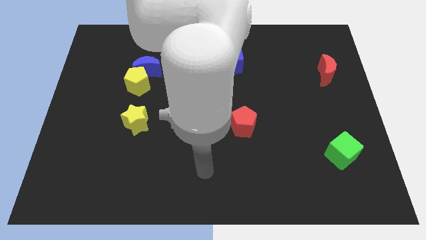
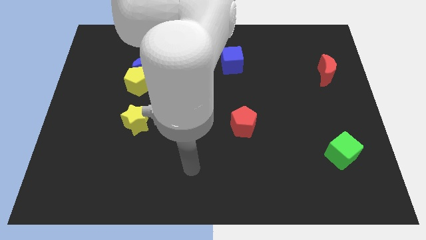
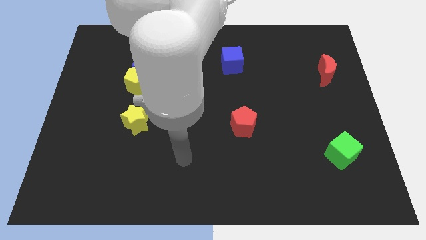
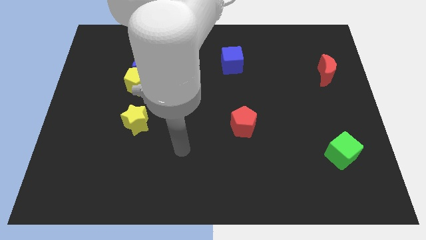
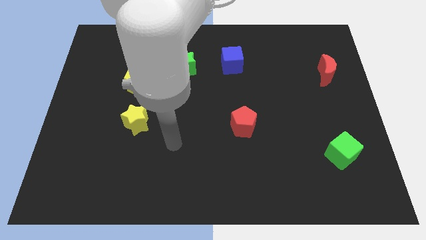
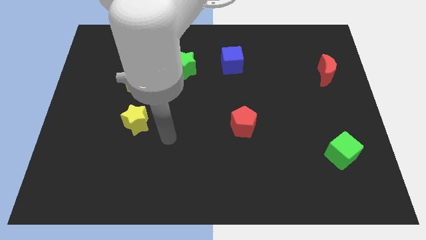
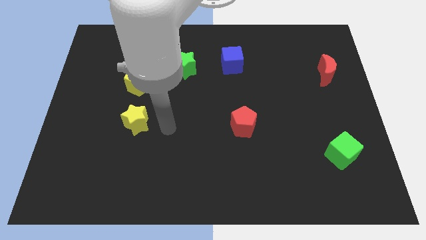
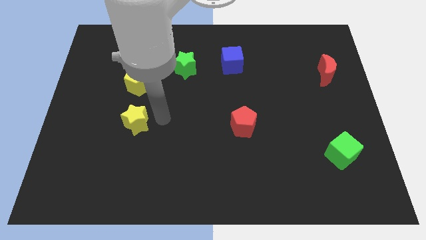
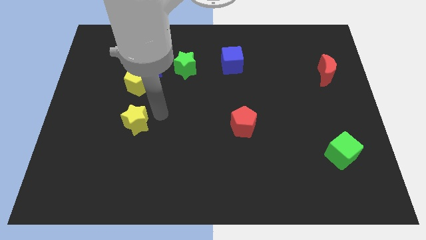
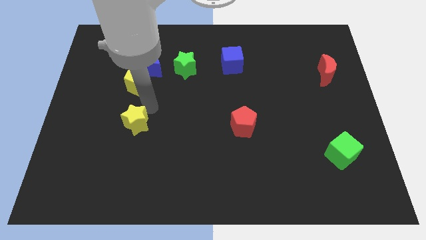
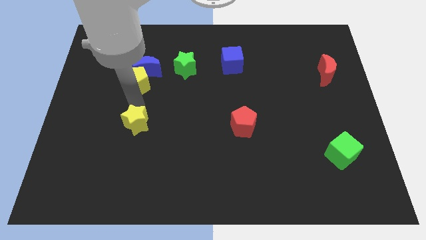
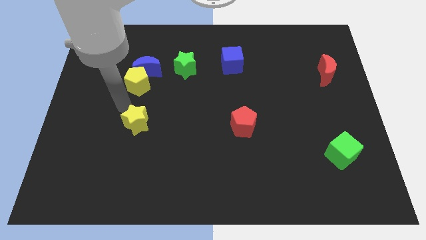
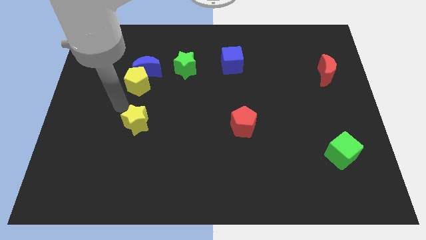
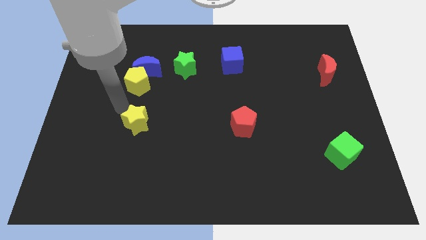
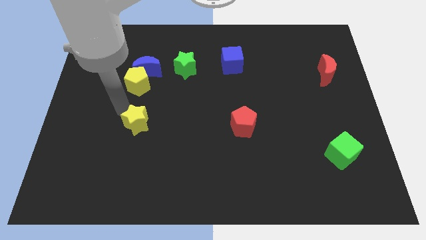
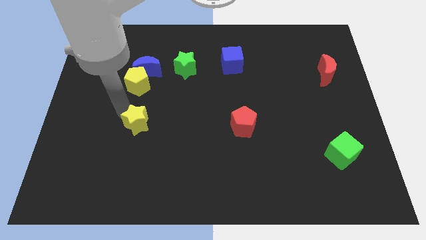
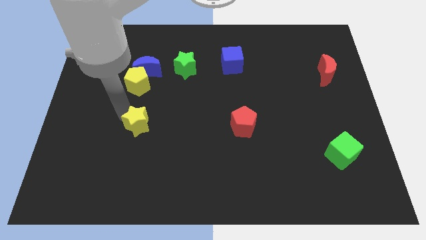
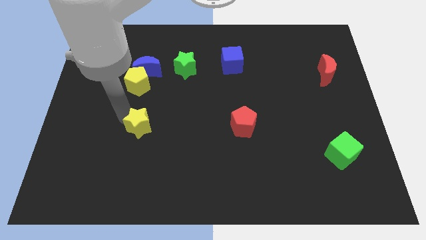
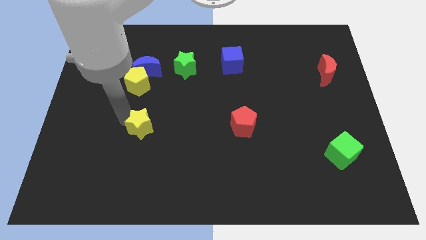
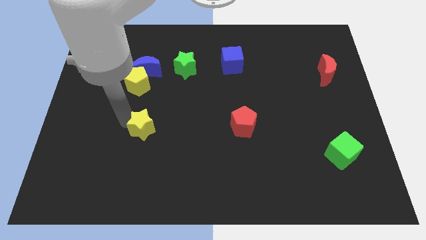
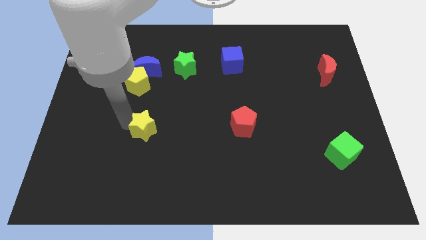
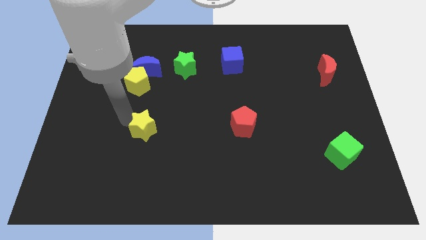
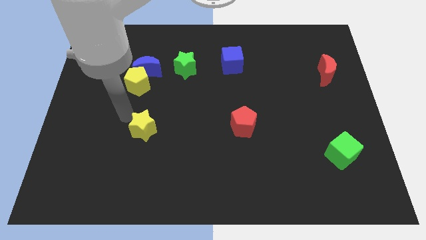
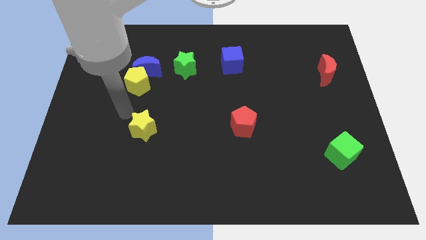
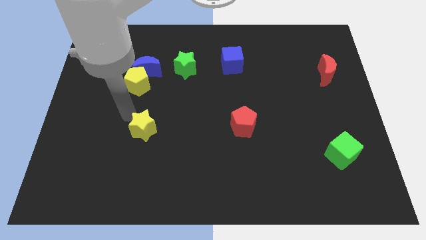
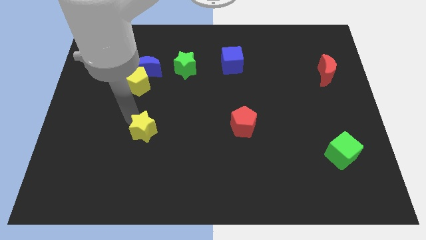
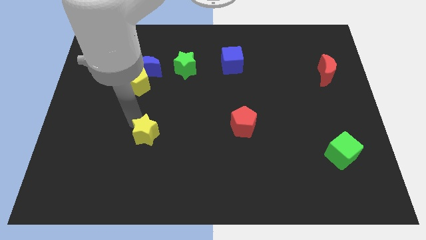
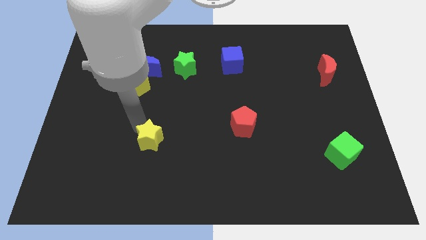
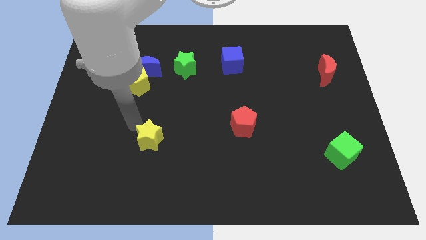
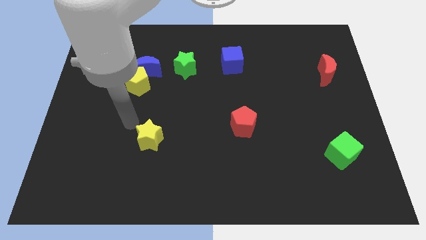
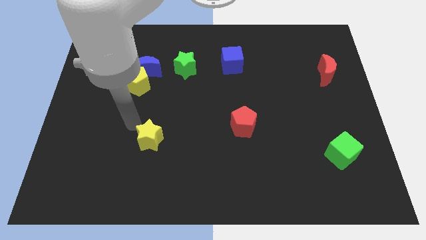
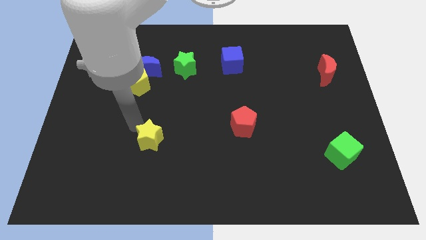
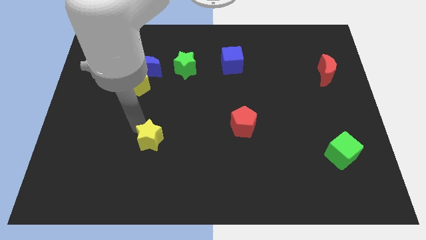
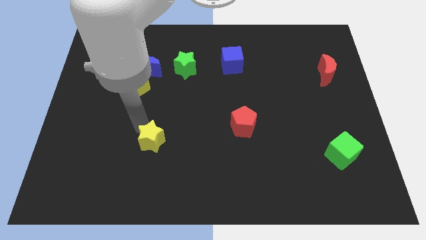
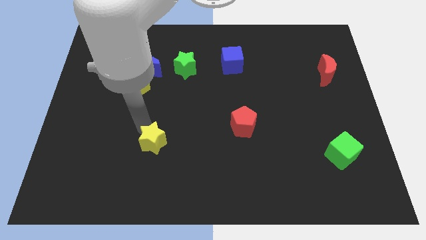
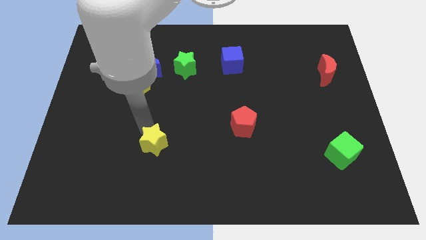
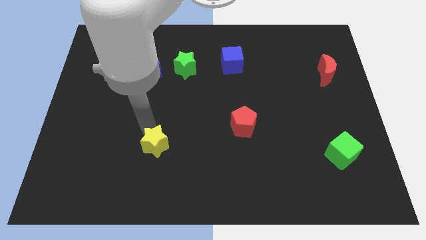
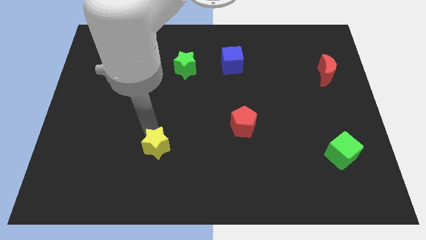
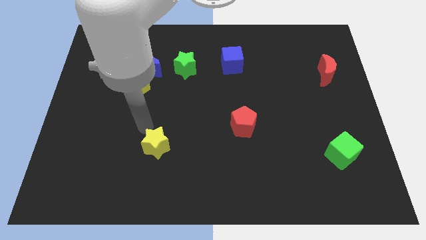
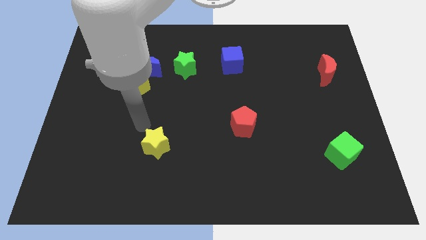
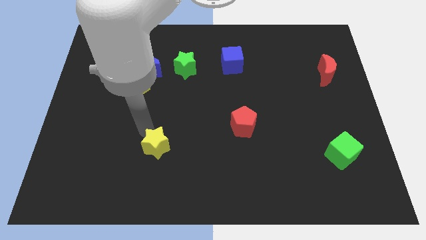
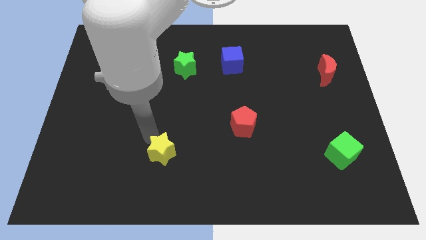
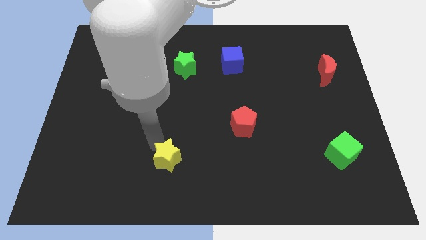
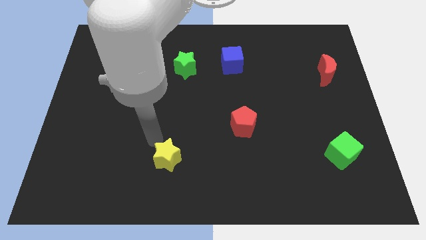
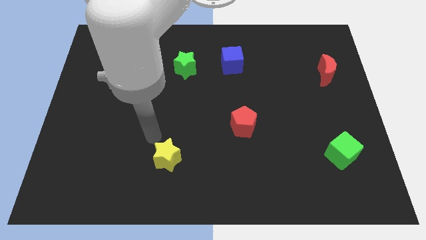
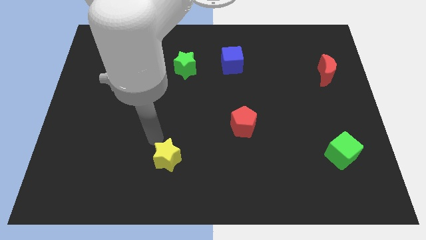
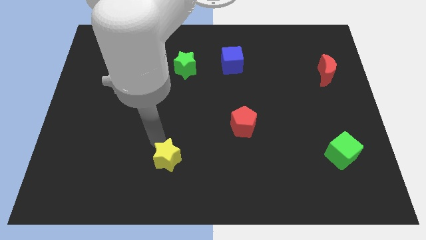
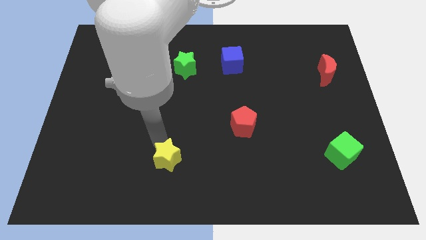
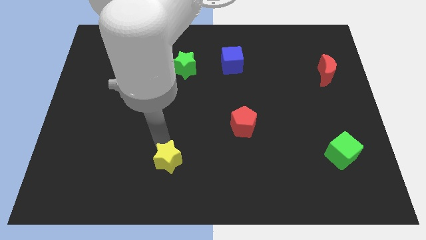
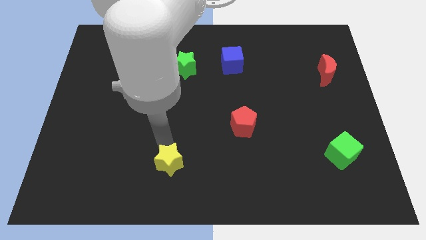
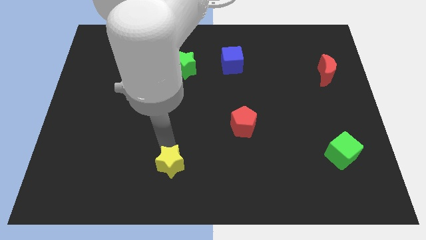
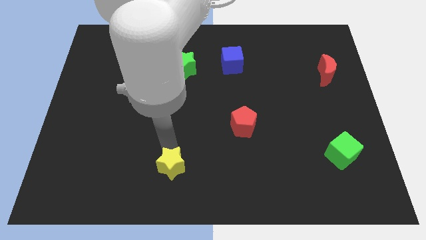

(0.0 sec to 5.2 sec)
slide the yellow star to the bottom side

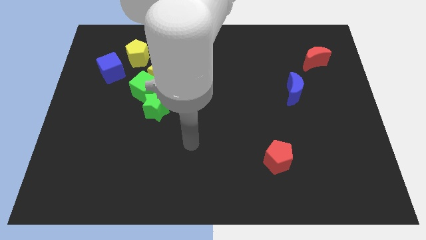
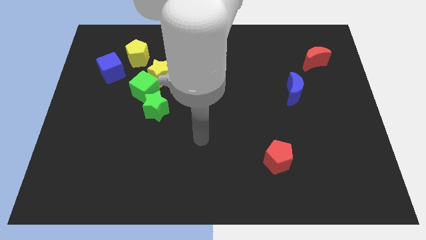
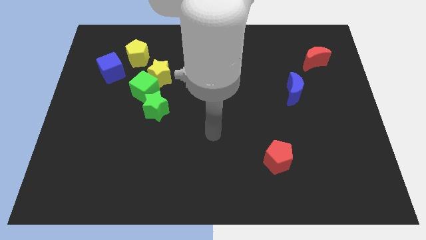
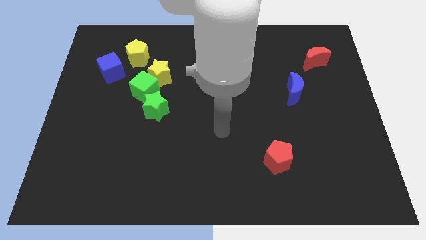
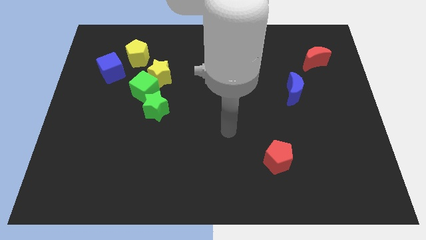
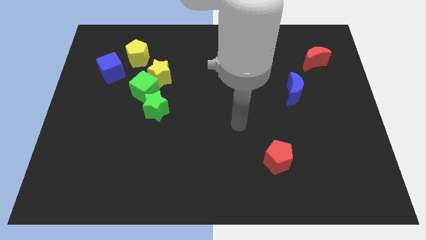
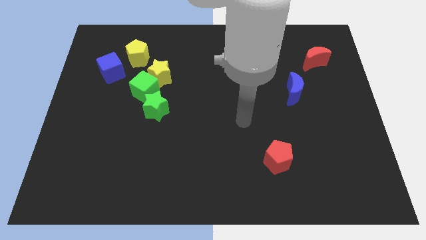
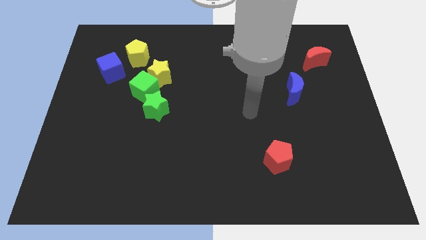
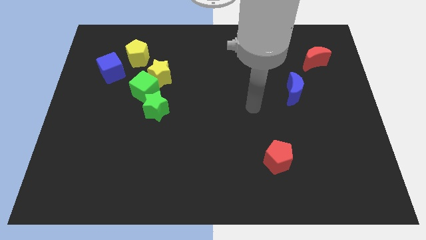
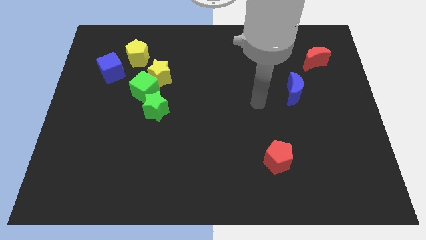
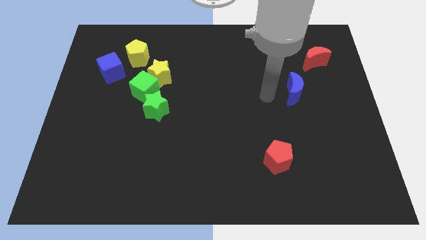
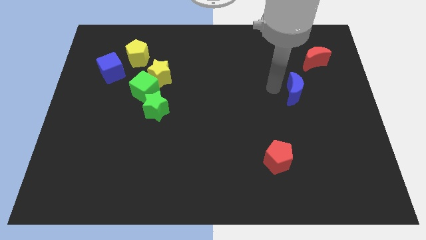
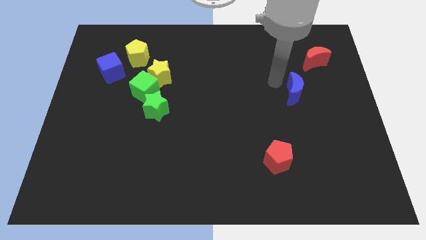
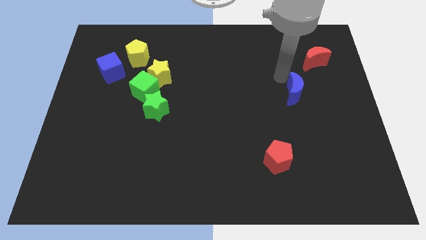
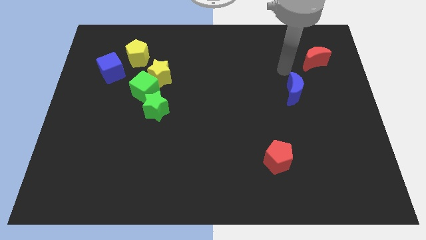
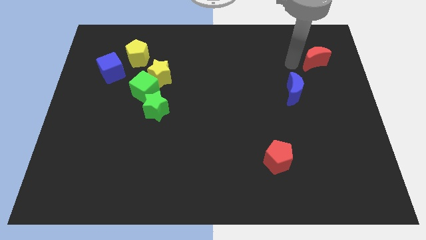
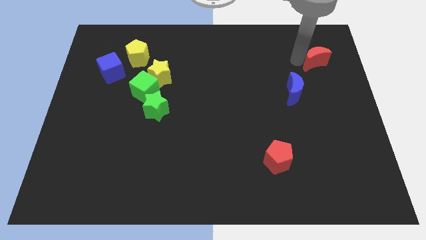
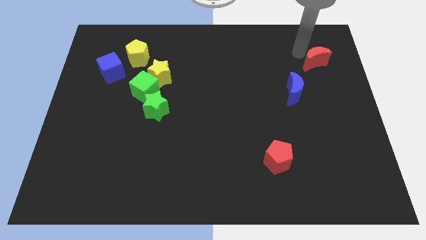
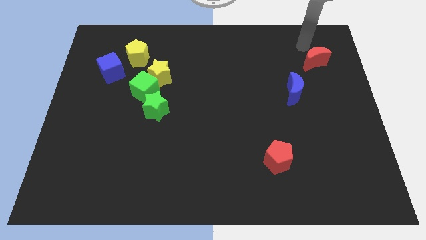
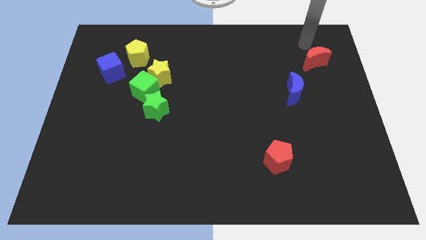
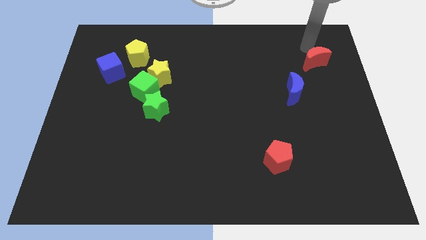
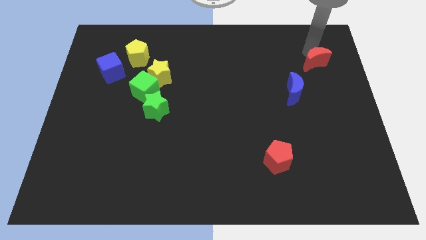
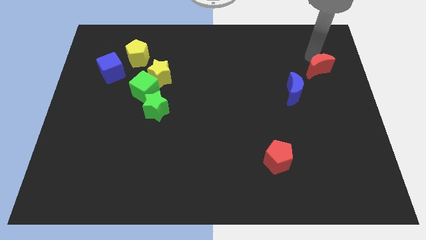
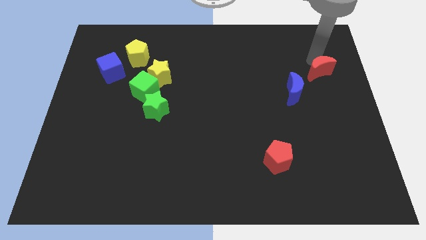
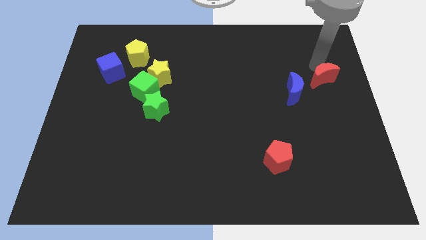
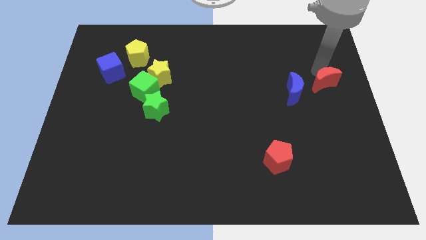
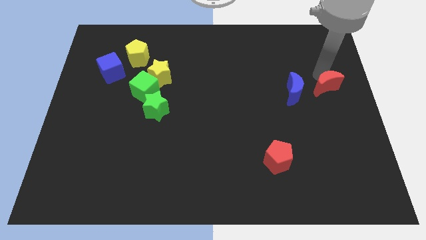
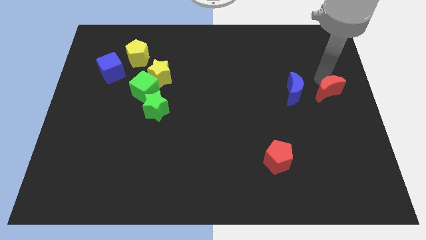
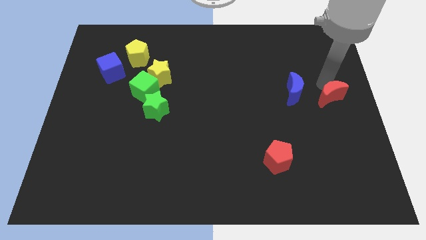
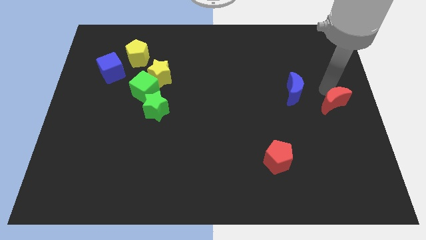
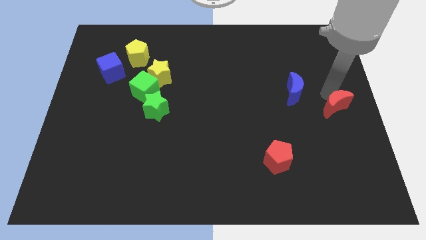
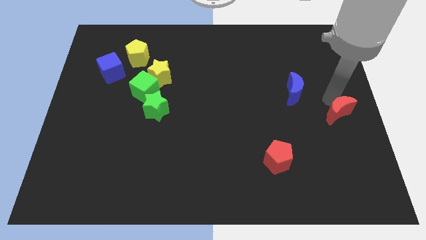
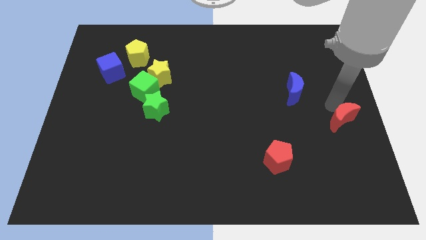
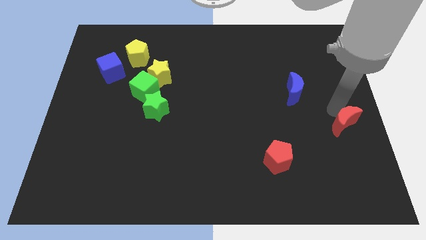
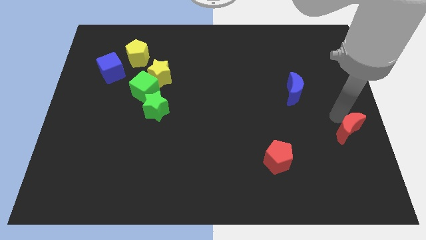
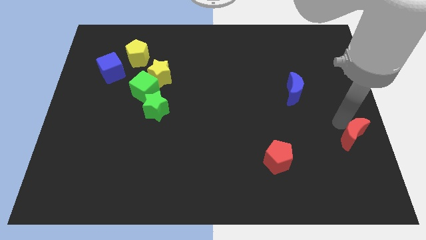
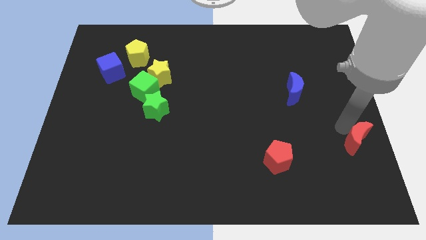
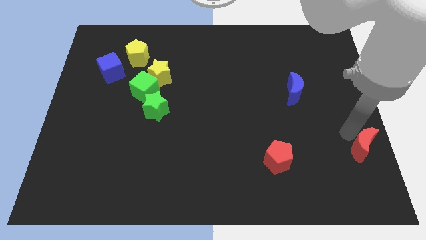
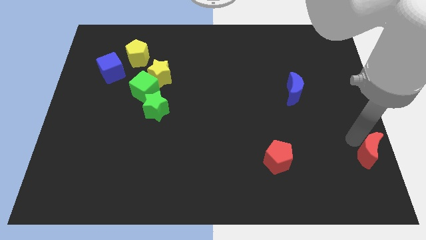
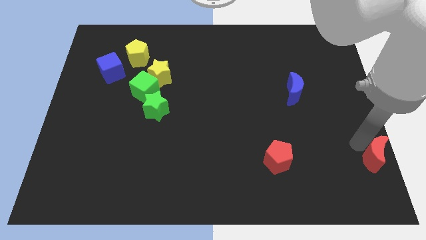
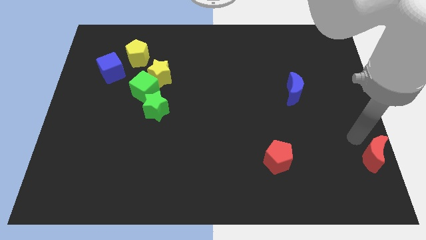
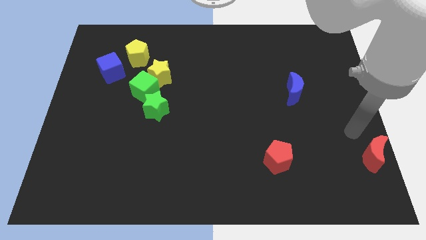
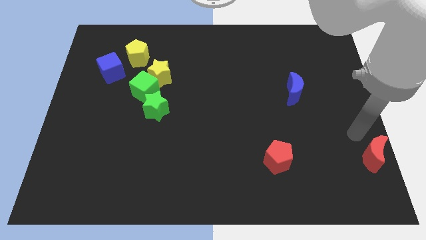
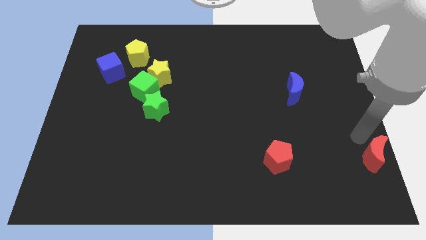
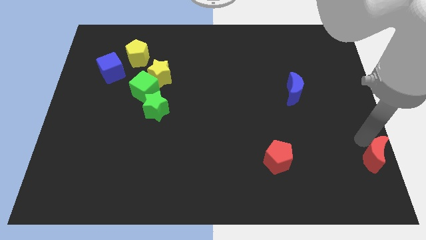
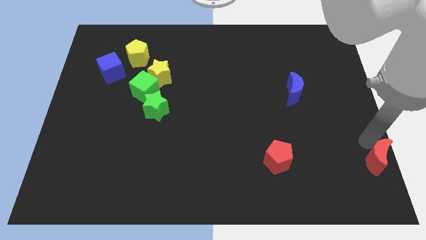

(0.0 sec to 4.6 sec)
put the red moon to the bottom right corner
